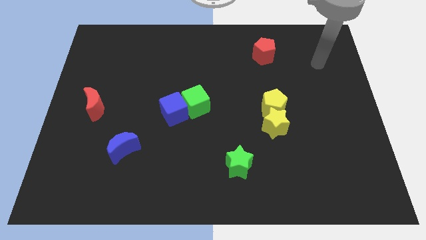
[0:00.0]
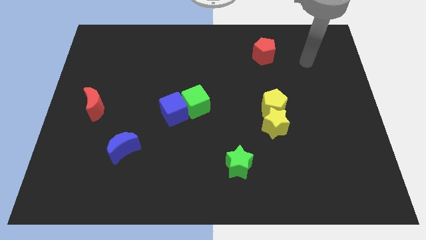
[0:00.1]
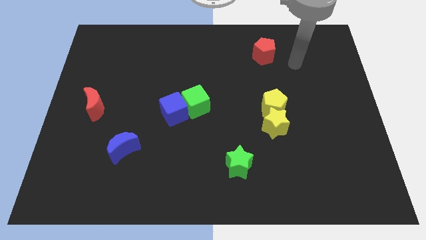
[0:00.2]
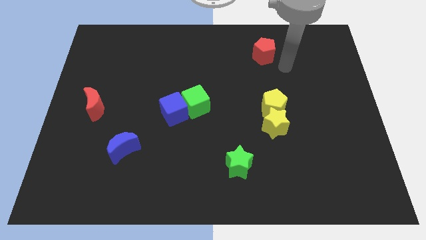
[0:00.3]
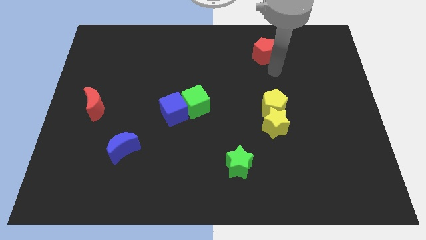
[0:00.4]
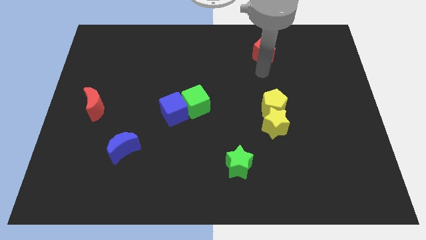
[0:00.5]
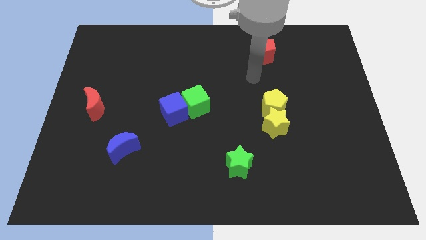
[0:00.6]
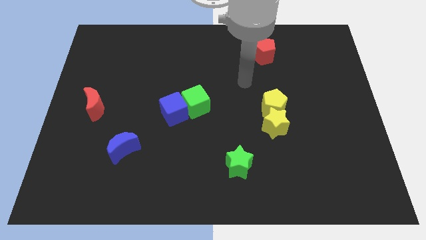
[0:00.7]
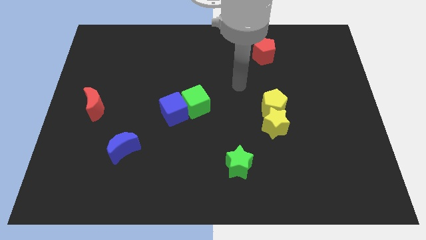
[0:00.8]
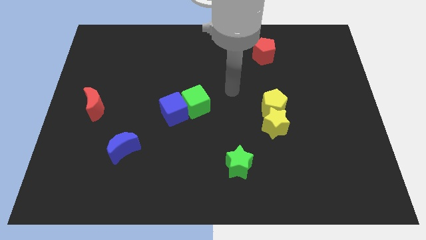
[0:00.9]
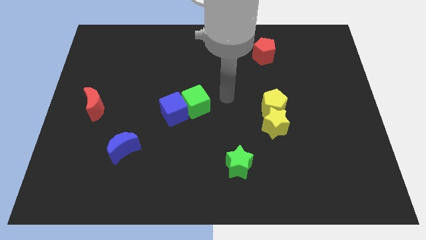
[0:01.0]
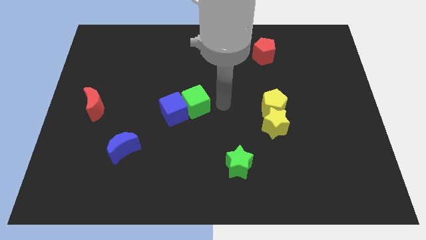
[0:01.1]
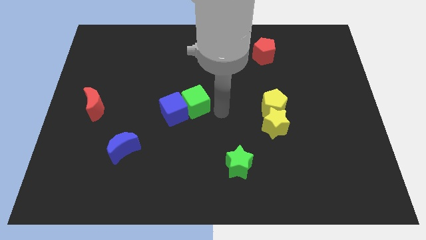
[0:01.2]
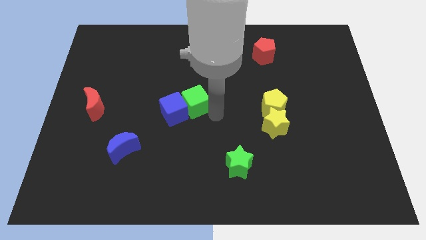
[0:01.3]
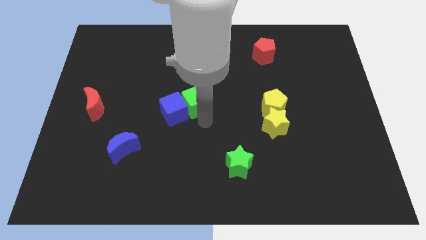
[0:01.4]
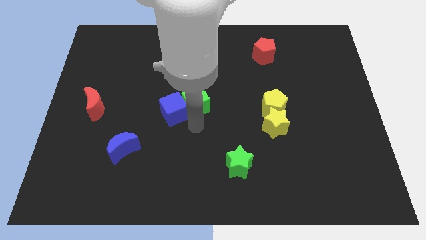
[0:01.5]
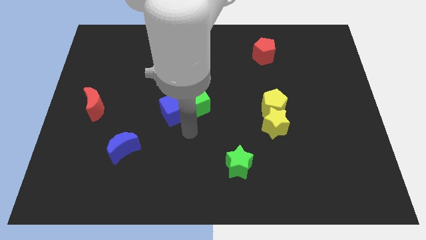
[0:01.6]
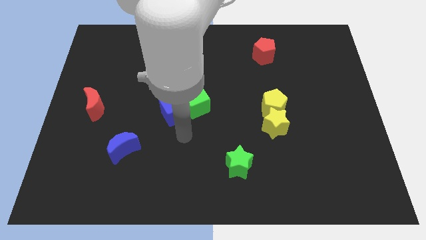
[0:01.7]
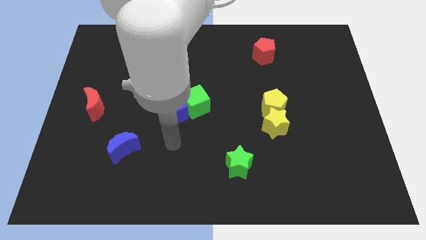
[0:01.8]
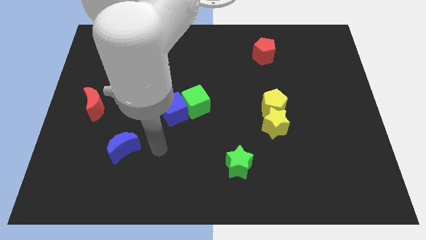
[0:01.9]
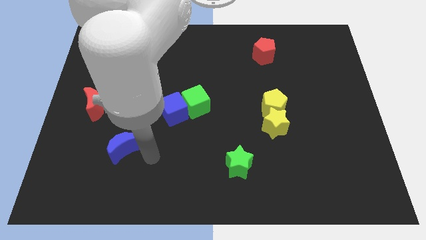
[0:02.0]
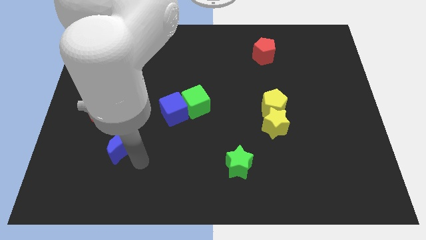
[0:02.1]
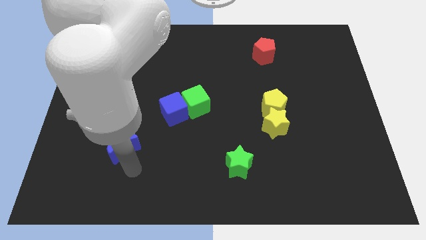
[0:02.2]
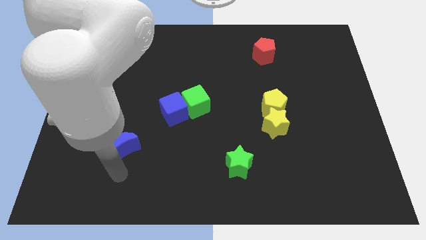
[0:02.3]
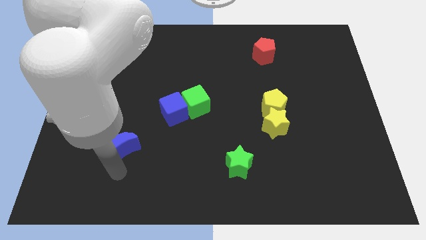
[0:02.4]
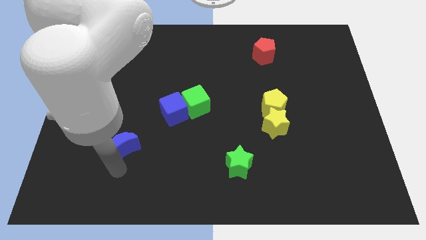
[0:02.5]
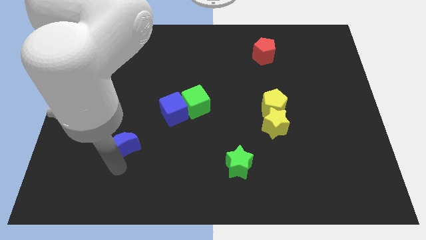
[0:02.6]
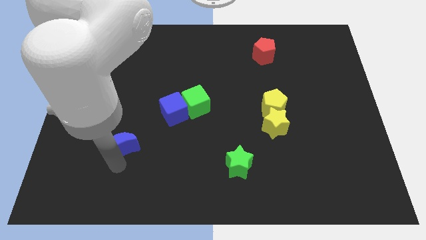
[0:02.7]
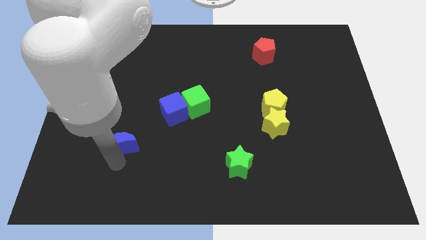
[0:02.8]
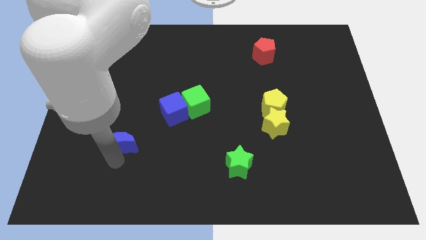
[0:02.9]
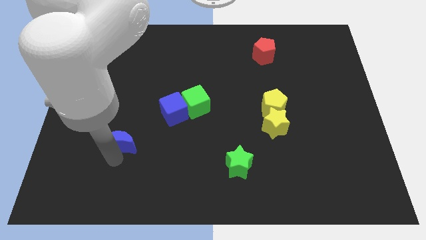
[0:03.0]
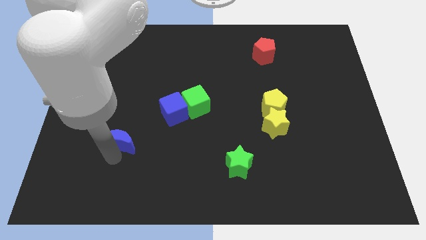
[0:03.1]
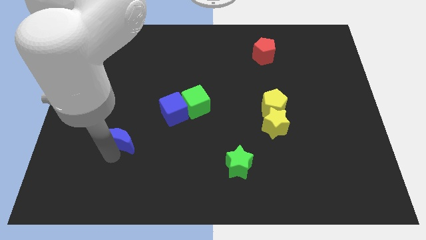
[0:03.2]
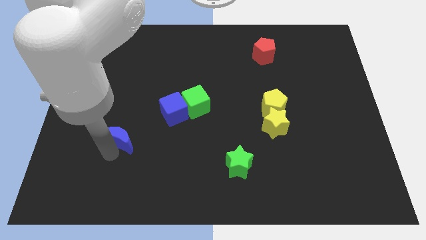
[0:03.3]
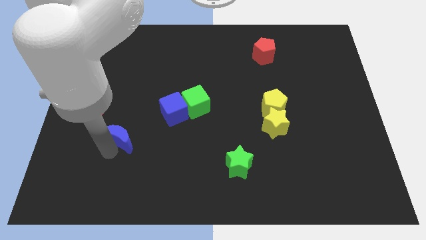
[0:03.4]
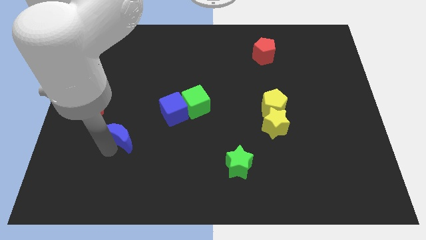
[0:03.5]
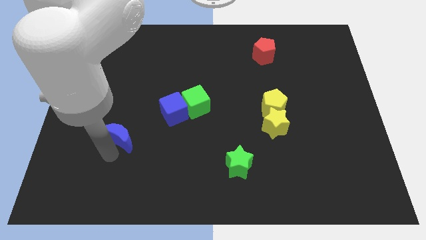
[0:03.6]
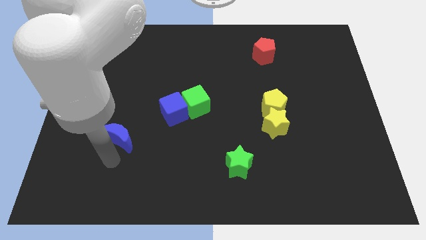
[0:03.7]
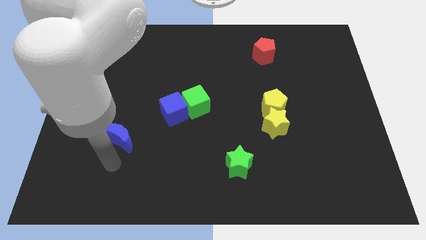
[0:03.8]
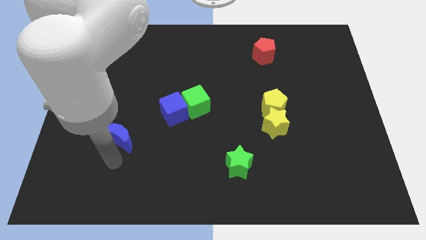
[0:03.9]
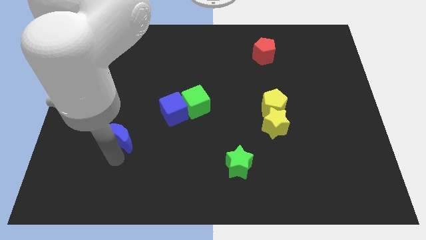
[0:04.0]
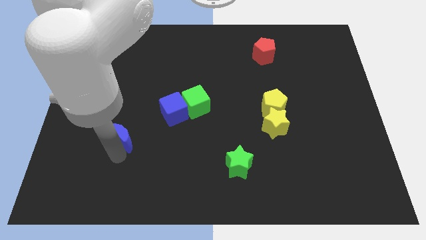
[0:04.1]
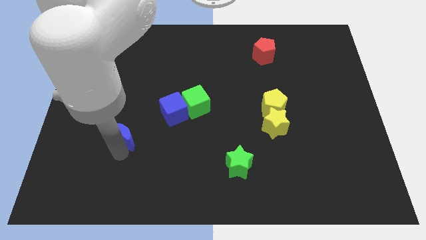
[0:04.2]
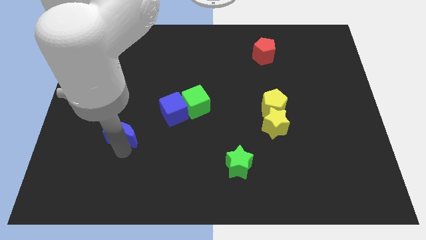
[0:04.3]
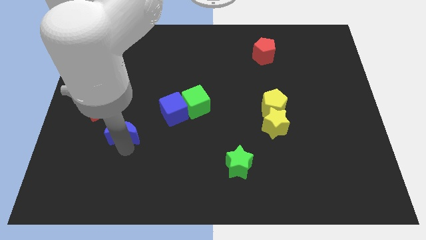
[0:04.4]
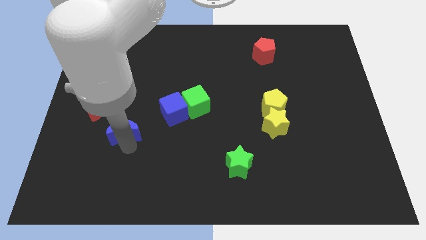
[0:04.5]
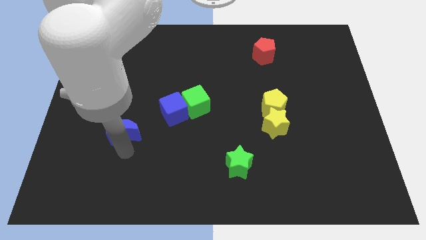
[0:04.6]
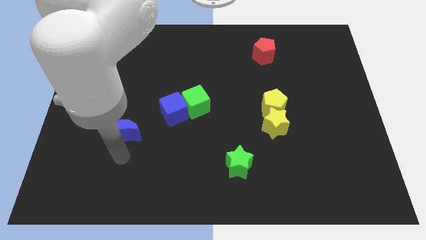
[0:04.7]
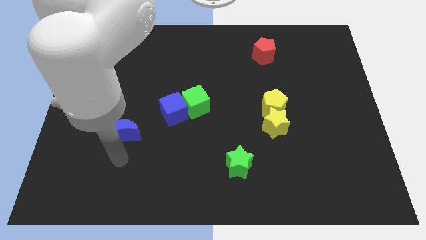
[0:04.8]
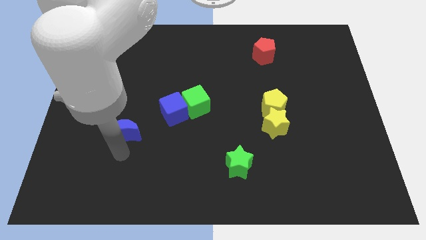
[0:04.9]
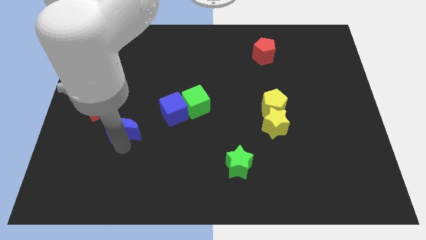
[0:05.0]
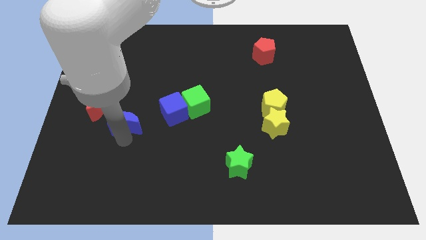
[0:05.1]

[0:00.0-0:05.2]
move the blue moon to the left of the blue cube

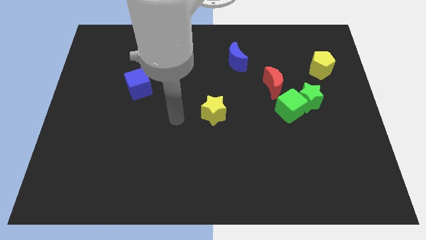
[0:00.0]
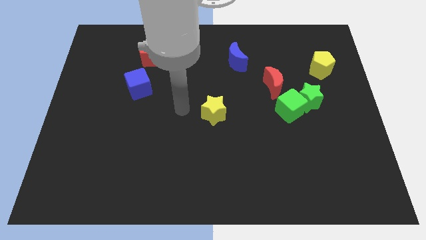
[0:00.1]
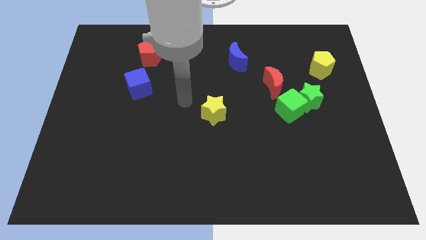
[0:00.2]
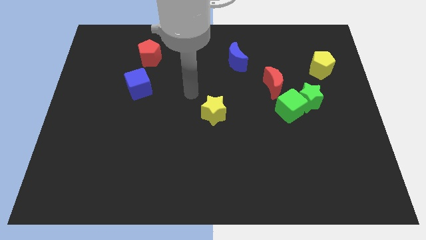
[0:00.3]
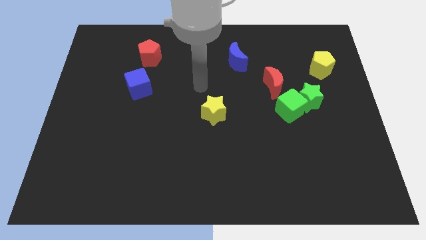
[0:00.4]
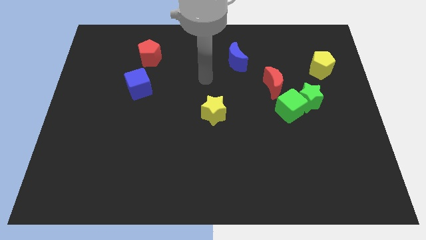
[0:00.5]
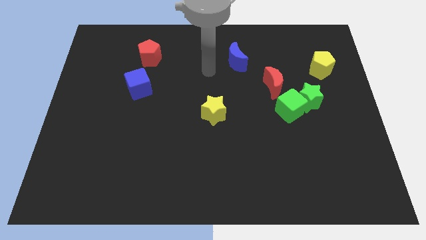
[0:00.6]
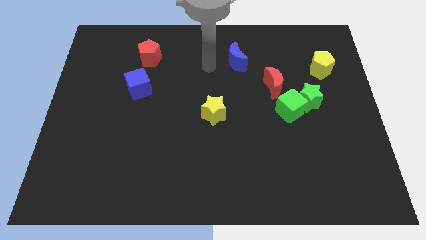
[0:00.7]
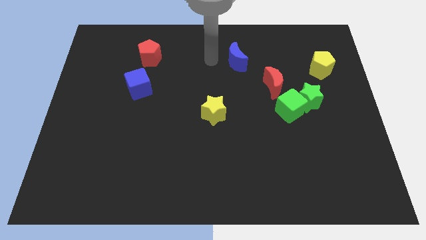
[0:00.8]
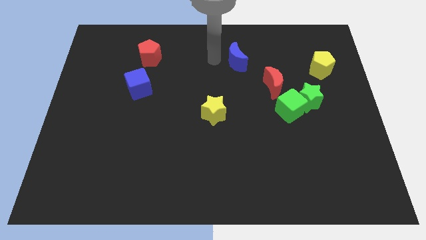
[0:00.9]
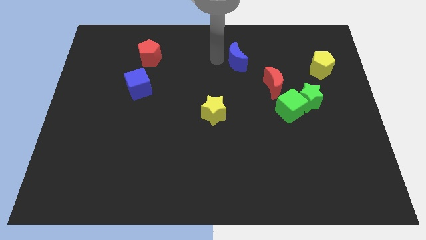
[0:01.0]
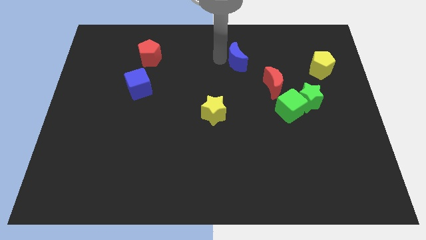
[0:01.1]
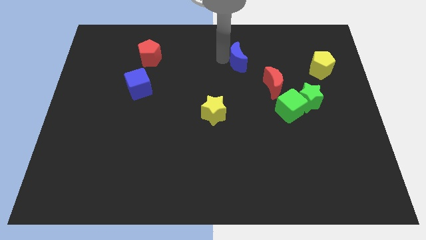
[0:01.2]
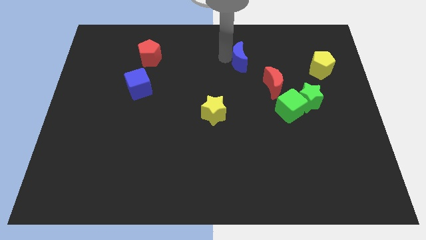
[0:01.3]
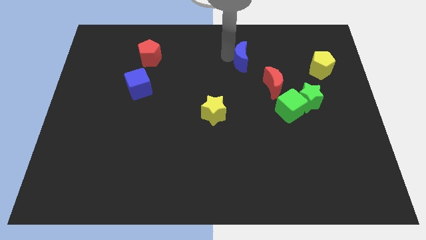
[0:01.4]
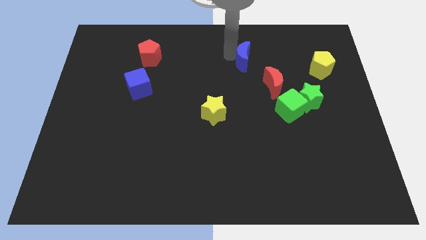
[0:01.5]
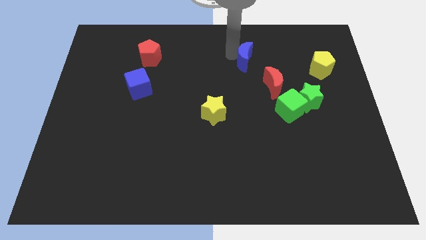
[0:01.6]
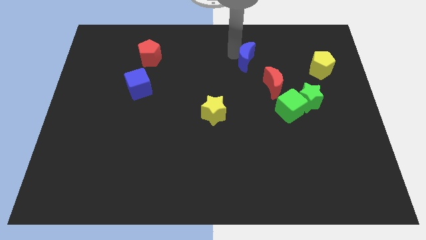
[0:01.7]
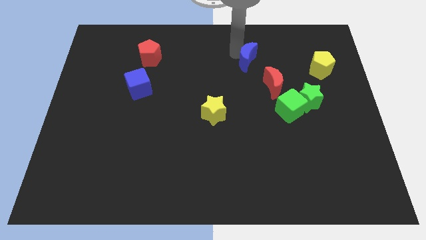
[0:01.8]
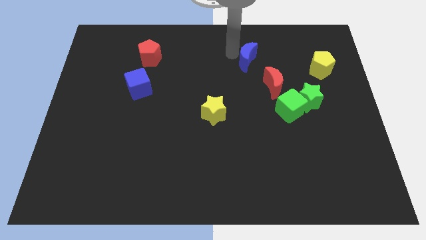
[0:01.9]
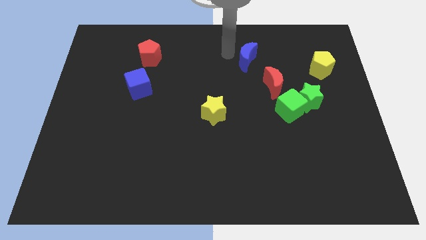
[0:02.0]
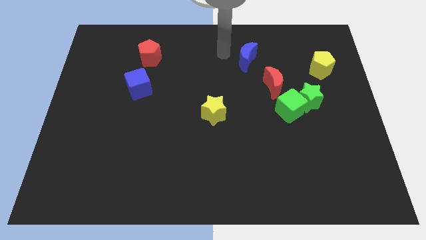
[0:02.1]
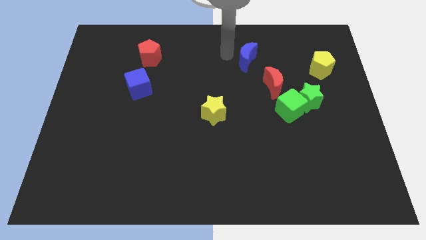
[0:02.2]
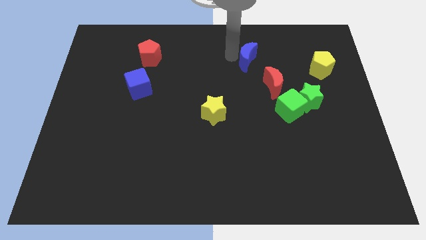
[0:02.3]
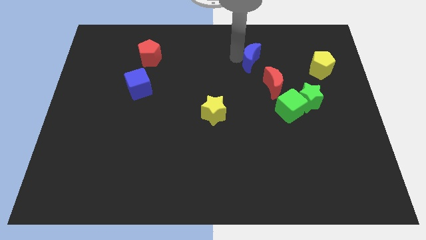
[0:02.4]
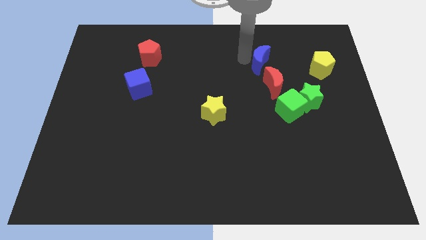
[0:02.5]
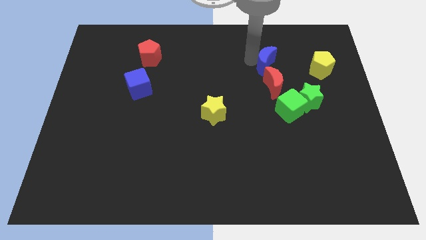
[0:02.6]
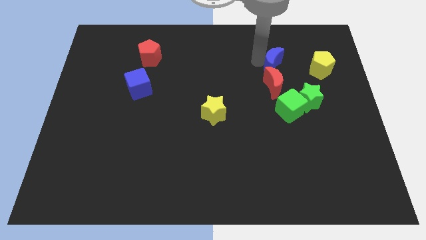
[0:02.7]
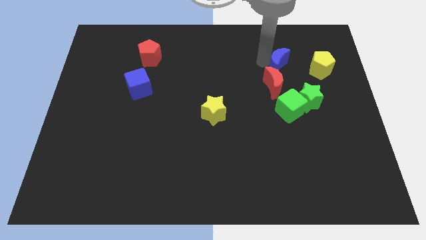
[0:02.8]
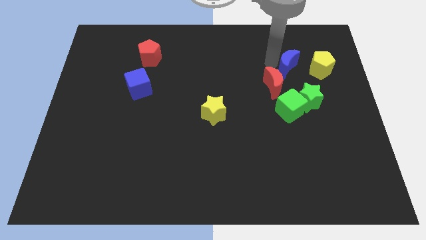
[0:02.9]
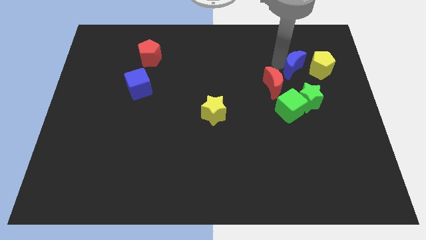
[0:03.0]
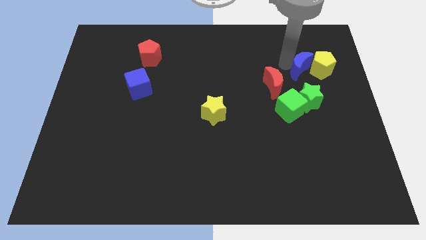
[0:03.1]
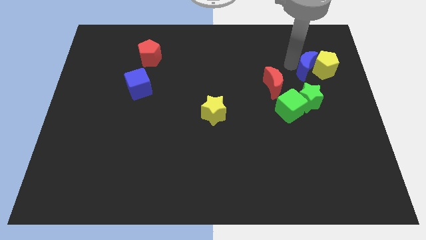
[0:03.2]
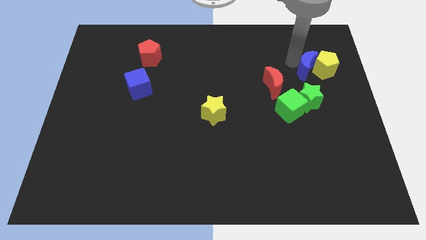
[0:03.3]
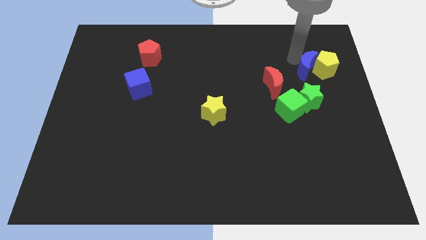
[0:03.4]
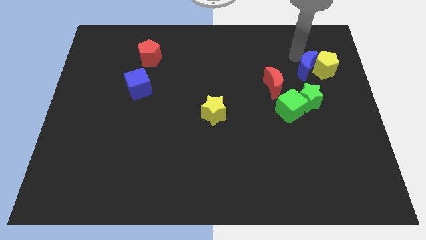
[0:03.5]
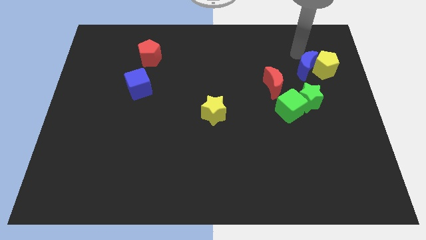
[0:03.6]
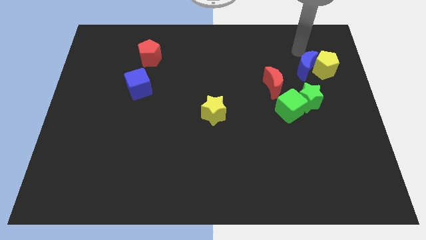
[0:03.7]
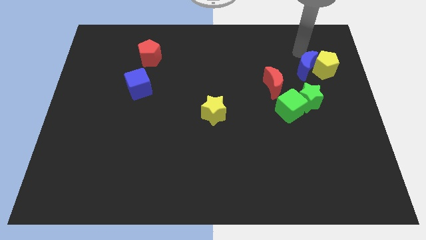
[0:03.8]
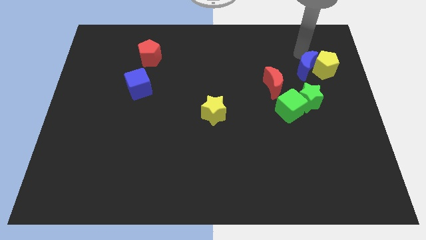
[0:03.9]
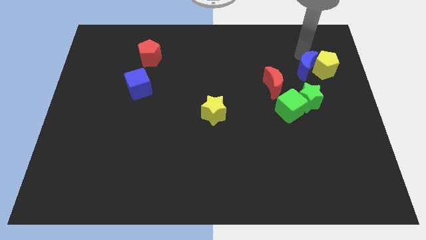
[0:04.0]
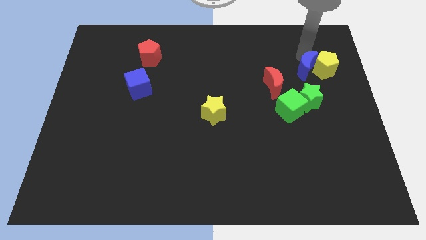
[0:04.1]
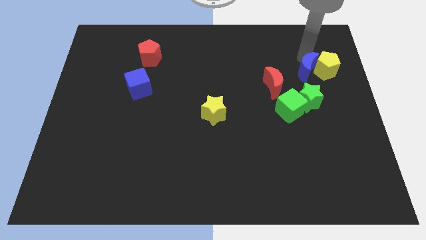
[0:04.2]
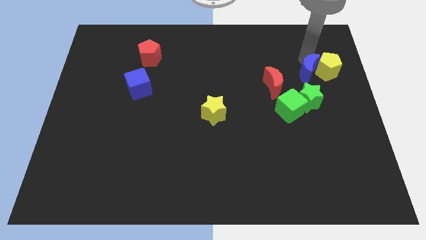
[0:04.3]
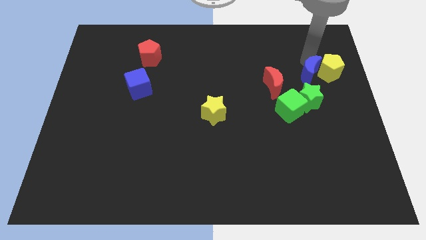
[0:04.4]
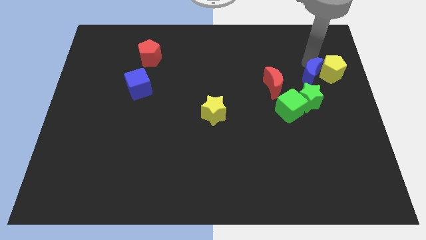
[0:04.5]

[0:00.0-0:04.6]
move the blue moon diagonally up and to the right of the green star
